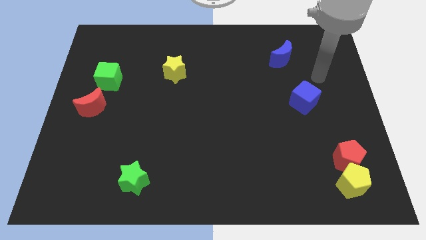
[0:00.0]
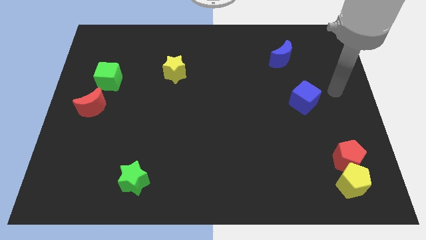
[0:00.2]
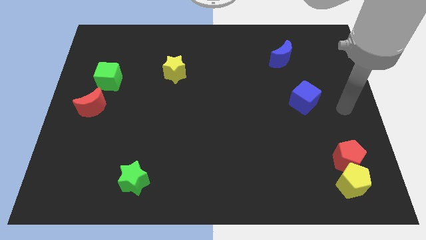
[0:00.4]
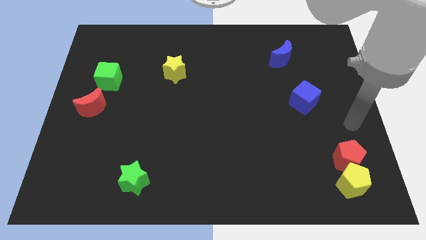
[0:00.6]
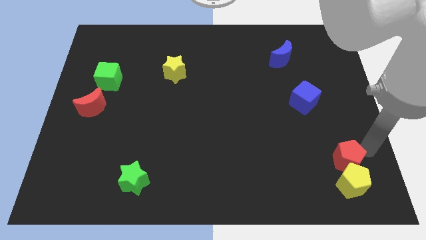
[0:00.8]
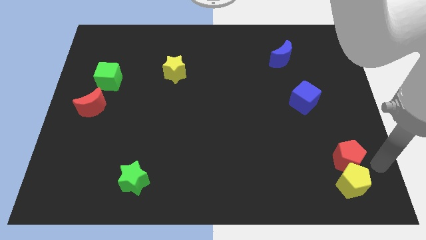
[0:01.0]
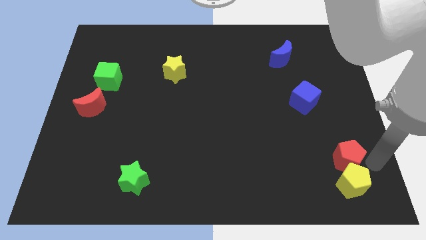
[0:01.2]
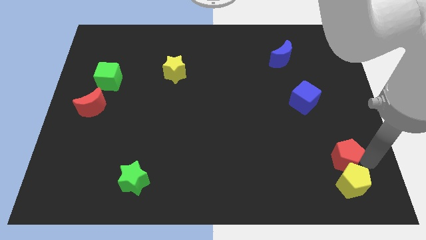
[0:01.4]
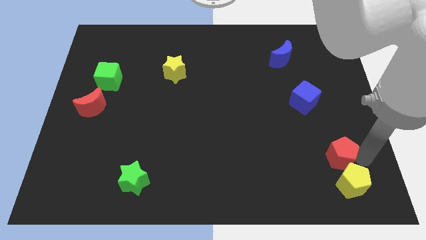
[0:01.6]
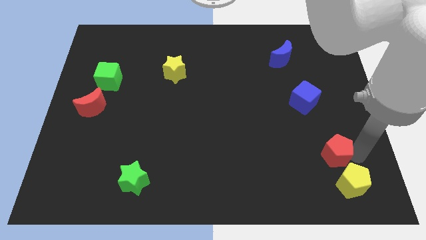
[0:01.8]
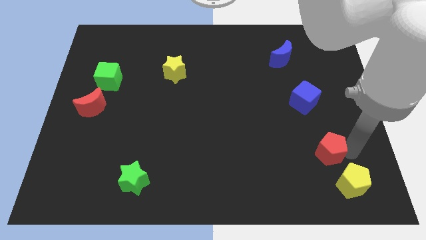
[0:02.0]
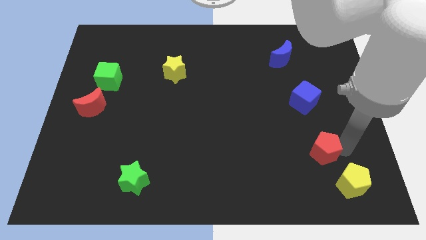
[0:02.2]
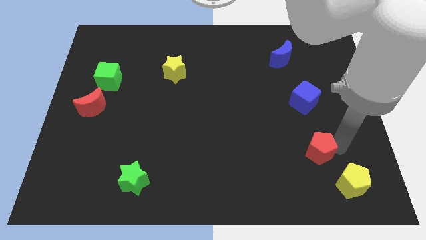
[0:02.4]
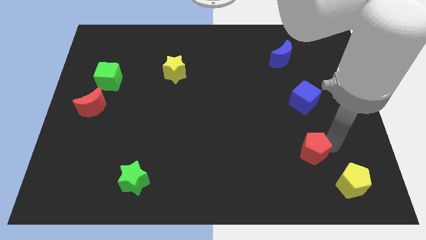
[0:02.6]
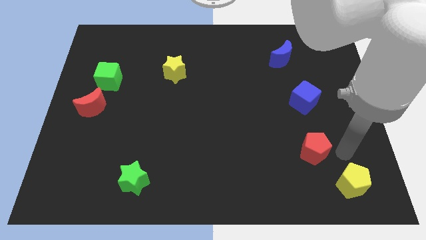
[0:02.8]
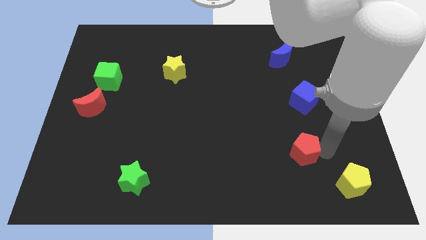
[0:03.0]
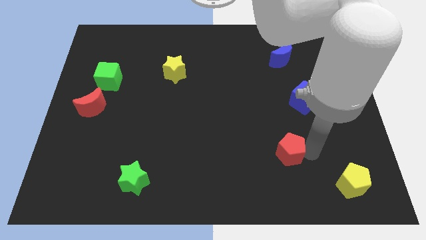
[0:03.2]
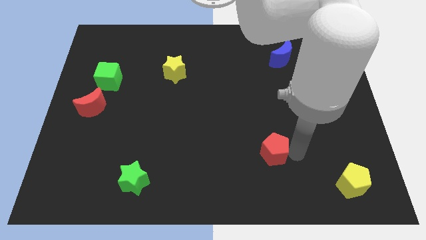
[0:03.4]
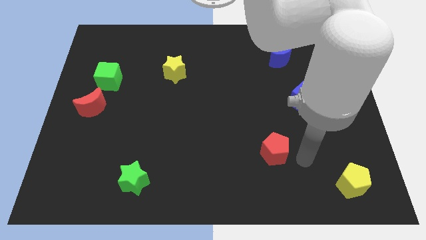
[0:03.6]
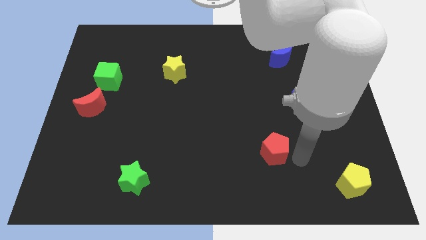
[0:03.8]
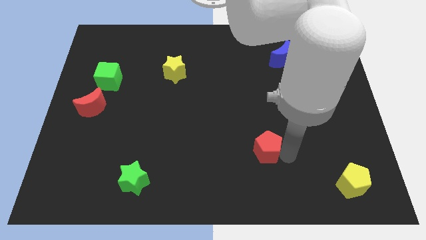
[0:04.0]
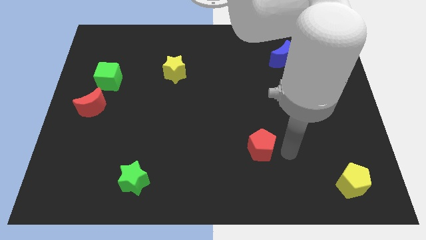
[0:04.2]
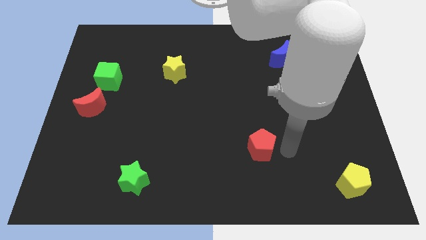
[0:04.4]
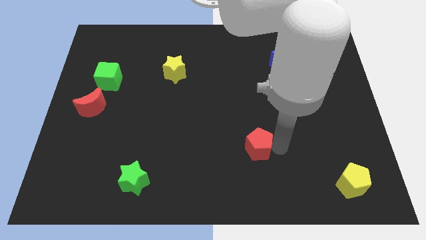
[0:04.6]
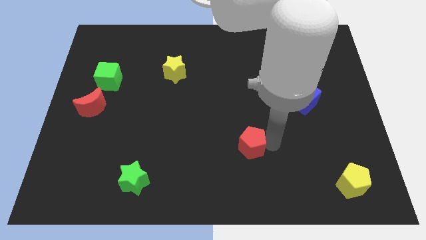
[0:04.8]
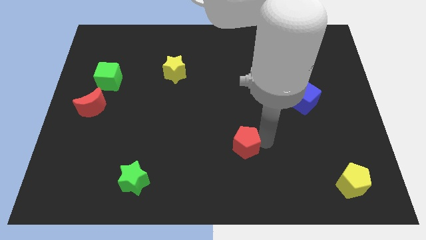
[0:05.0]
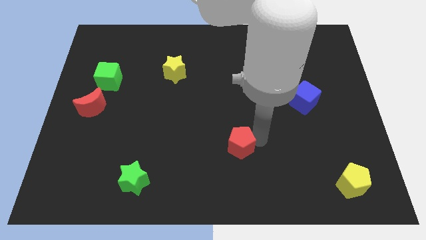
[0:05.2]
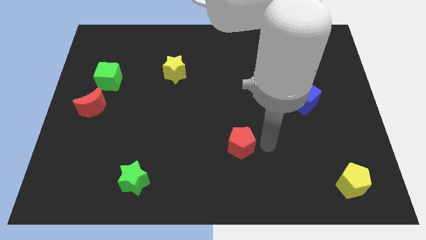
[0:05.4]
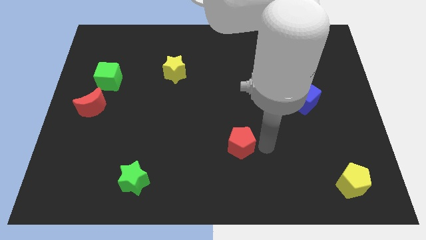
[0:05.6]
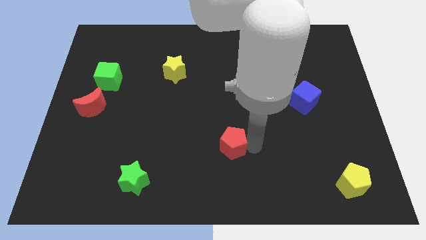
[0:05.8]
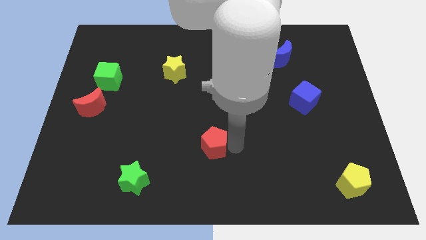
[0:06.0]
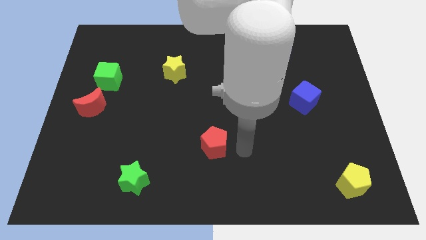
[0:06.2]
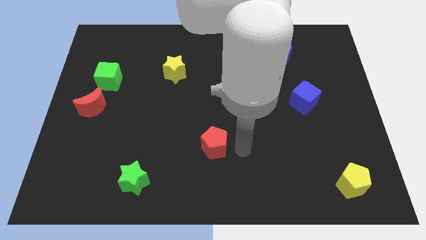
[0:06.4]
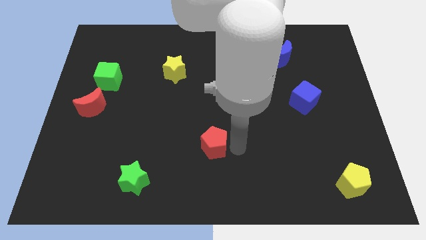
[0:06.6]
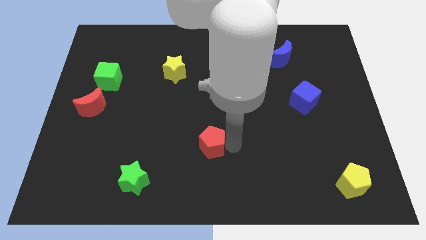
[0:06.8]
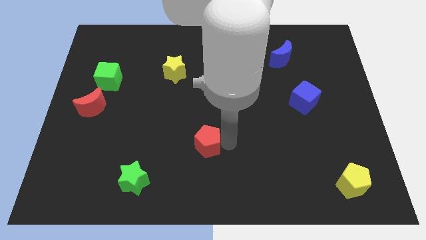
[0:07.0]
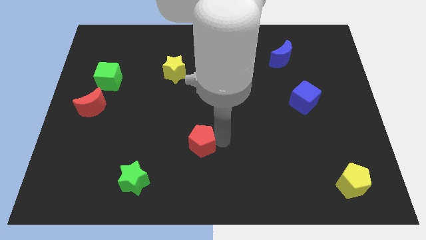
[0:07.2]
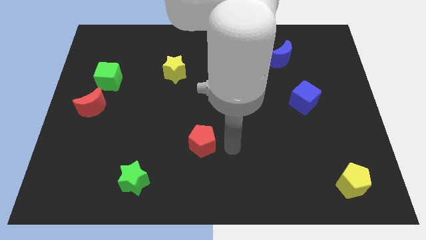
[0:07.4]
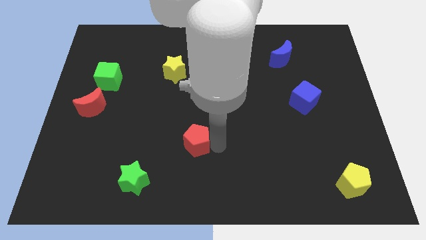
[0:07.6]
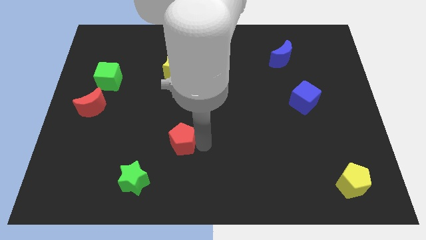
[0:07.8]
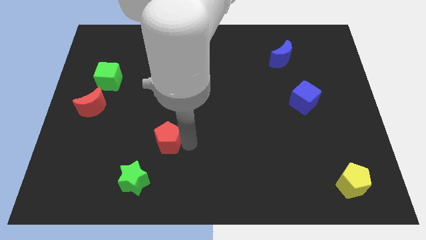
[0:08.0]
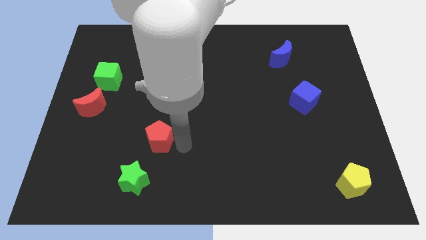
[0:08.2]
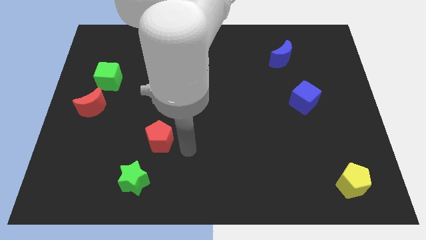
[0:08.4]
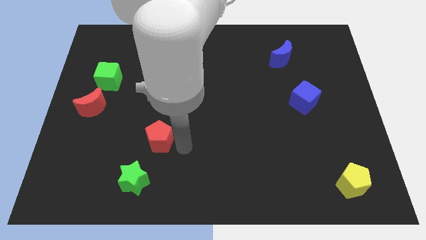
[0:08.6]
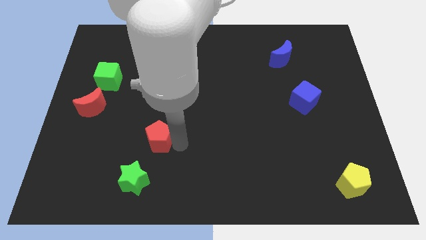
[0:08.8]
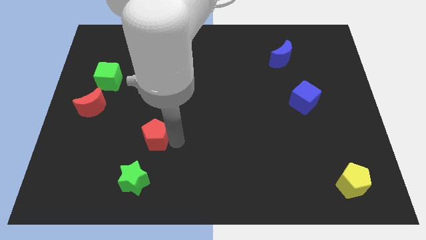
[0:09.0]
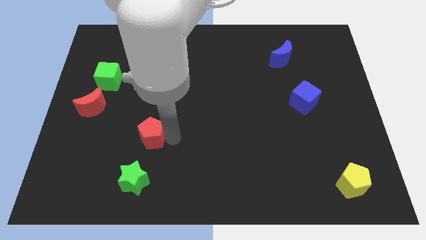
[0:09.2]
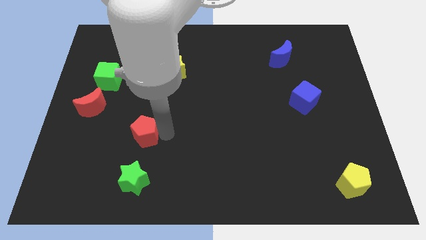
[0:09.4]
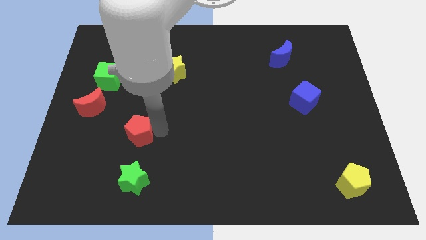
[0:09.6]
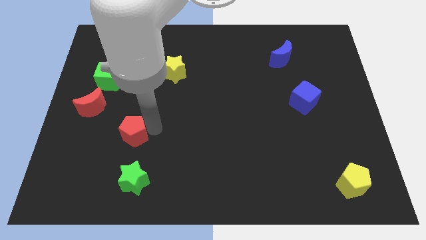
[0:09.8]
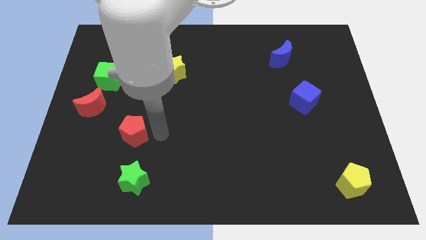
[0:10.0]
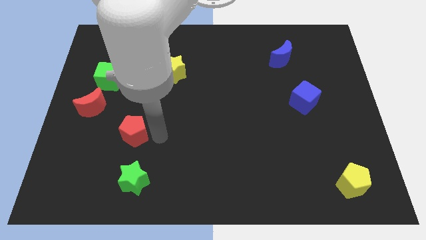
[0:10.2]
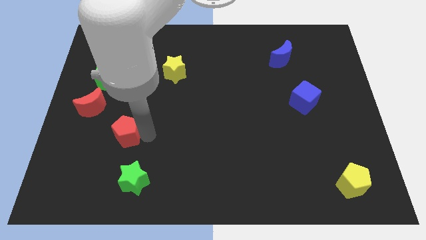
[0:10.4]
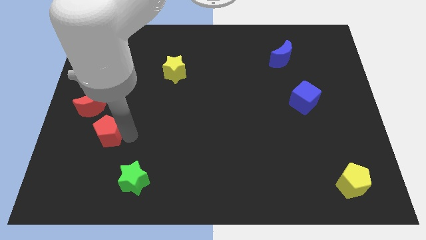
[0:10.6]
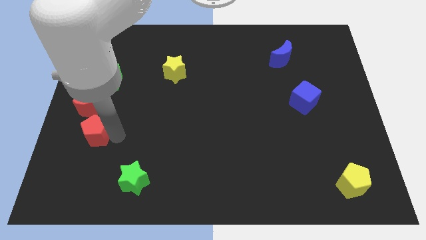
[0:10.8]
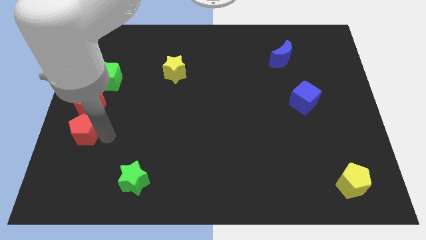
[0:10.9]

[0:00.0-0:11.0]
put the red pentagon to the left side

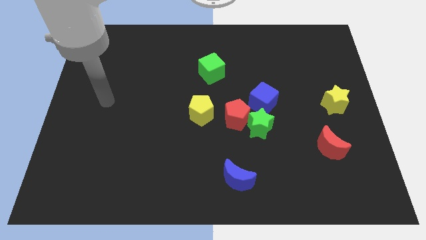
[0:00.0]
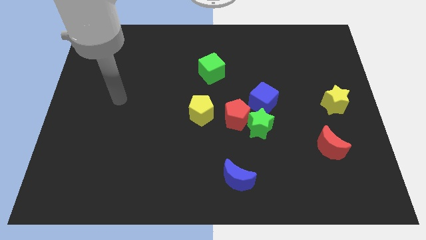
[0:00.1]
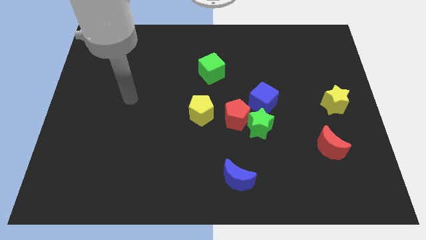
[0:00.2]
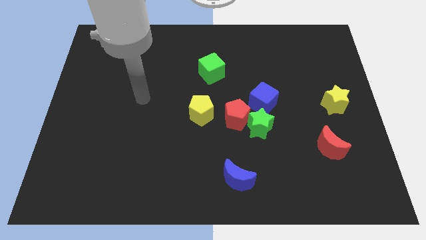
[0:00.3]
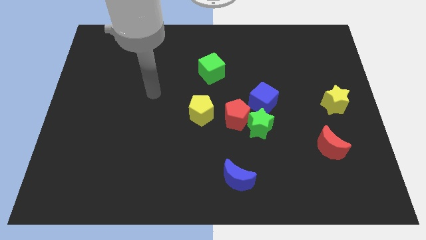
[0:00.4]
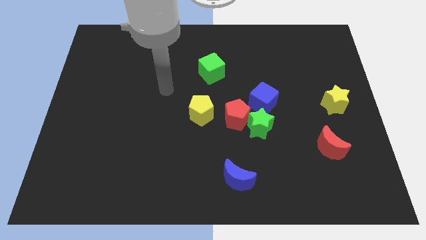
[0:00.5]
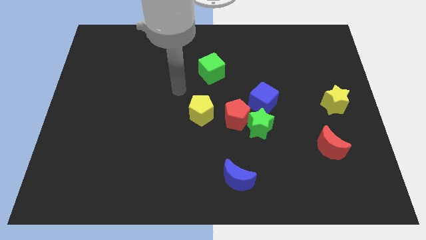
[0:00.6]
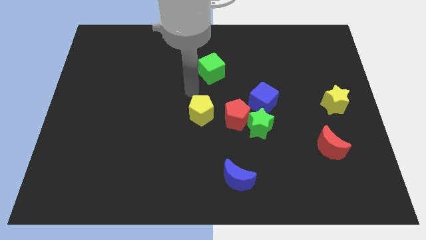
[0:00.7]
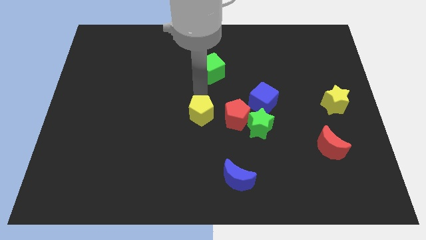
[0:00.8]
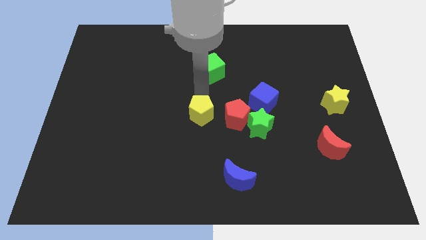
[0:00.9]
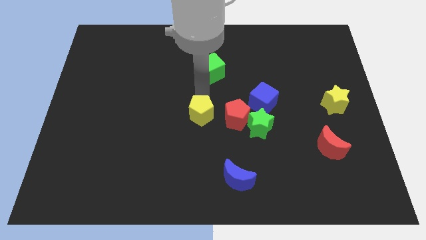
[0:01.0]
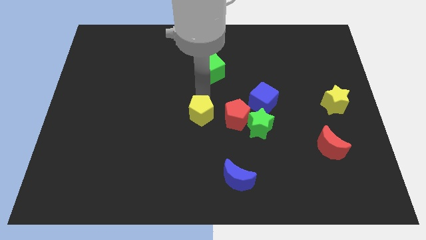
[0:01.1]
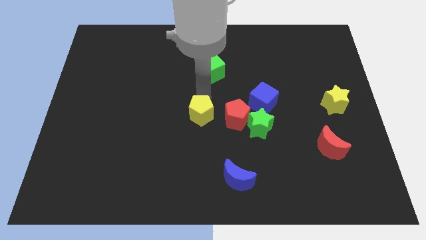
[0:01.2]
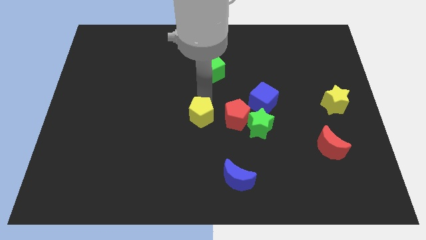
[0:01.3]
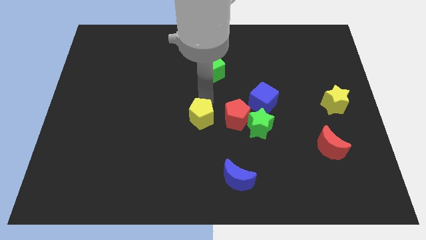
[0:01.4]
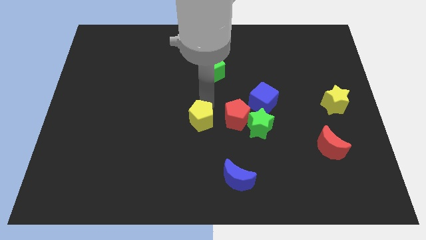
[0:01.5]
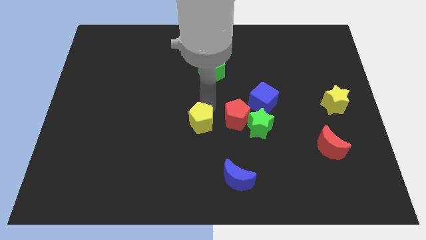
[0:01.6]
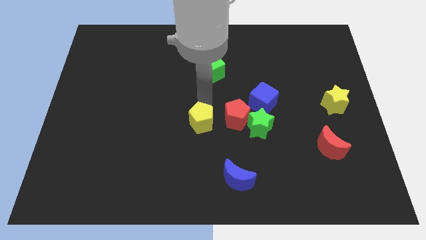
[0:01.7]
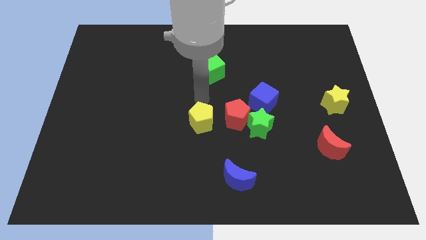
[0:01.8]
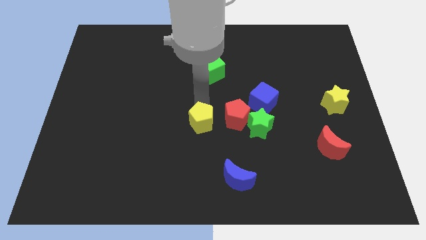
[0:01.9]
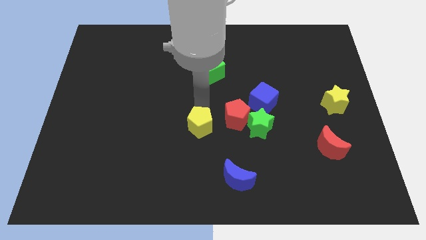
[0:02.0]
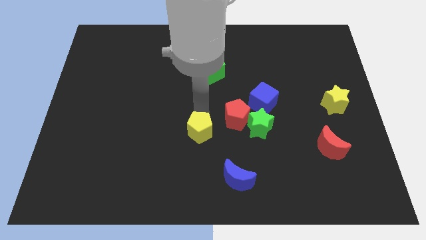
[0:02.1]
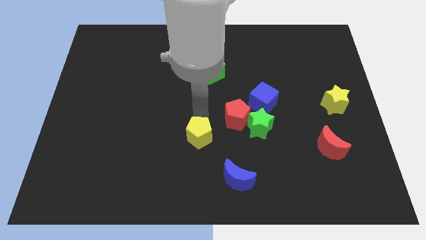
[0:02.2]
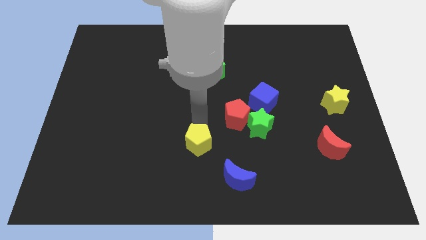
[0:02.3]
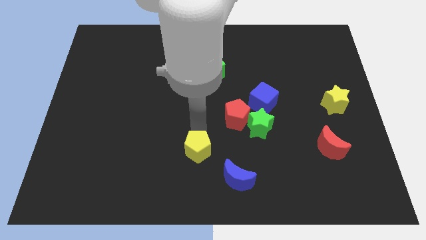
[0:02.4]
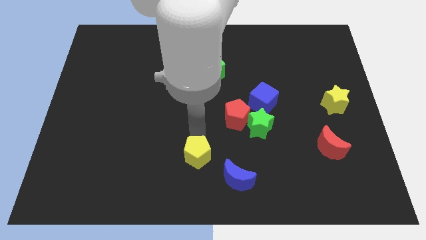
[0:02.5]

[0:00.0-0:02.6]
push the yellow pentagon to the bottom side
